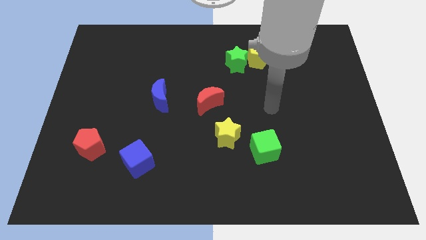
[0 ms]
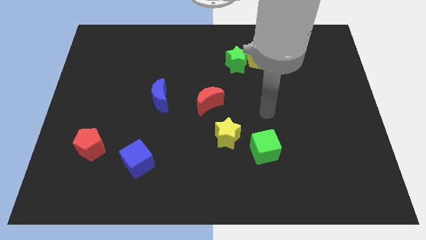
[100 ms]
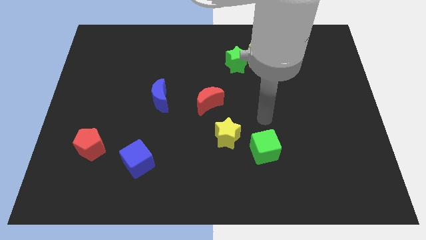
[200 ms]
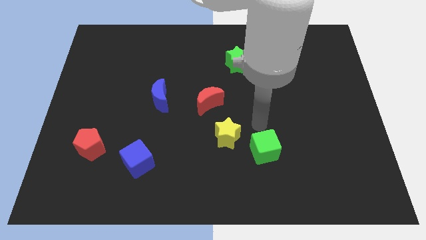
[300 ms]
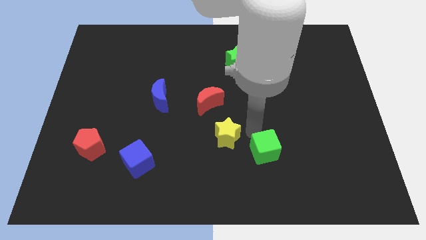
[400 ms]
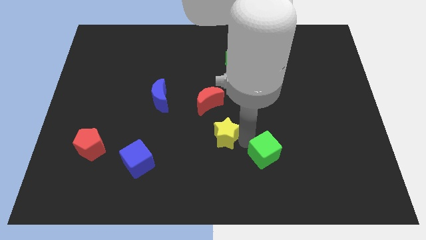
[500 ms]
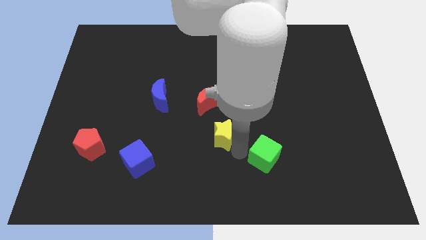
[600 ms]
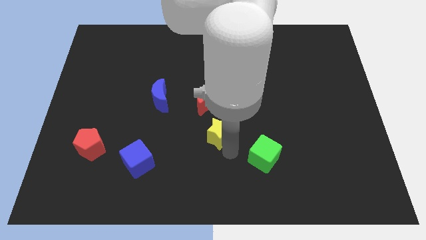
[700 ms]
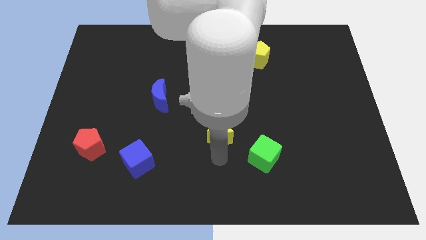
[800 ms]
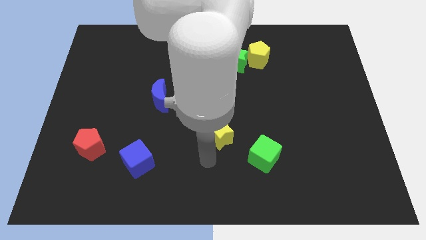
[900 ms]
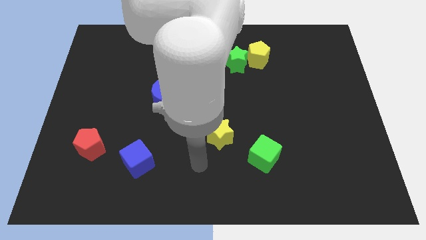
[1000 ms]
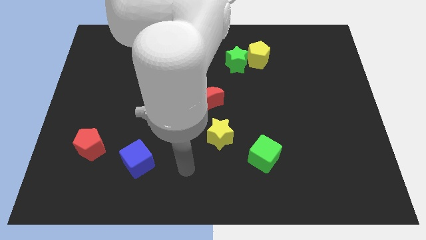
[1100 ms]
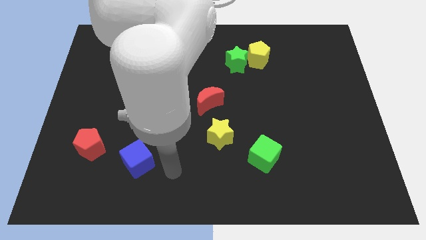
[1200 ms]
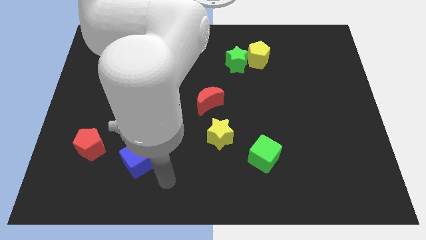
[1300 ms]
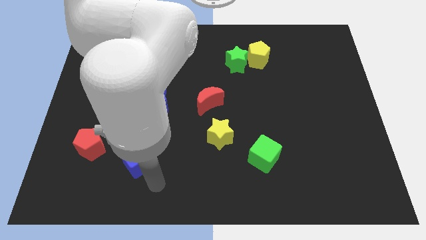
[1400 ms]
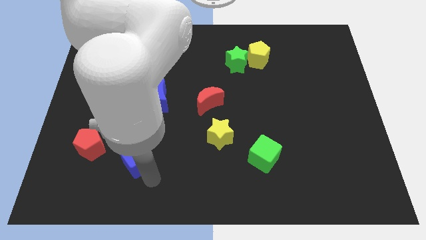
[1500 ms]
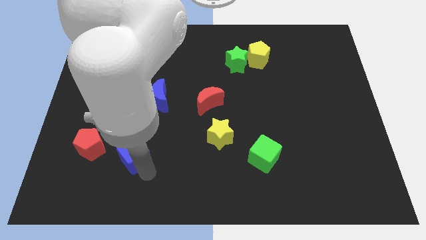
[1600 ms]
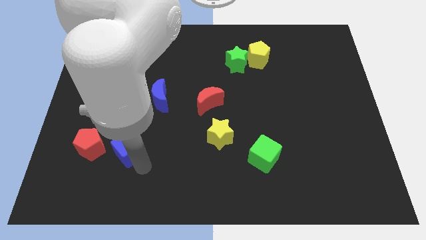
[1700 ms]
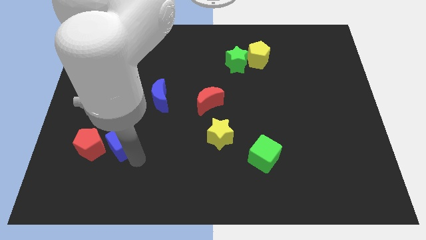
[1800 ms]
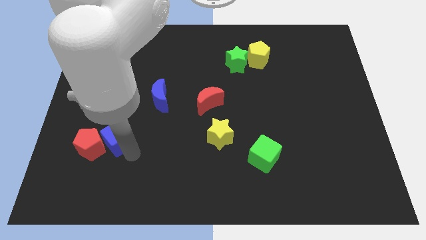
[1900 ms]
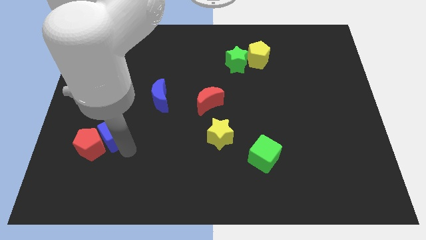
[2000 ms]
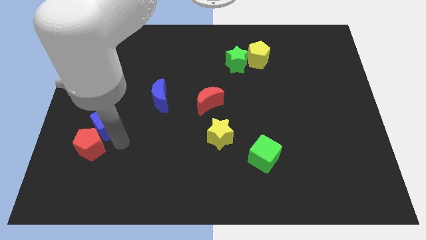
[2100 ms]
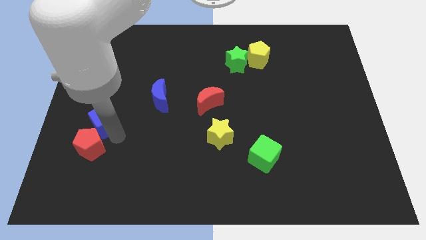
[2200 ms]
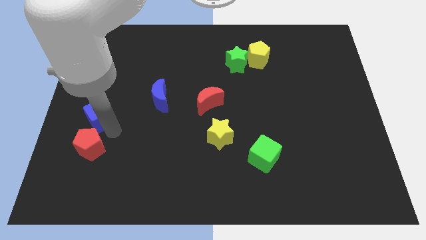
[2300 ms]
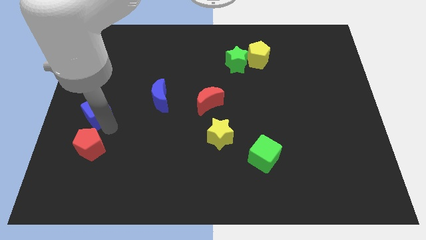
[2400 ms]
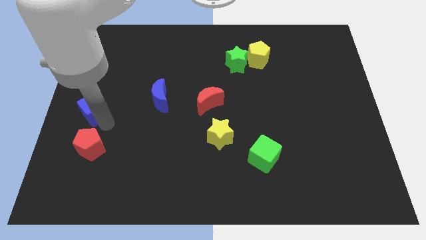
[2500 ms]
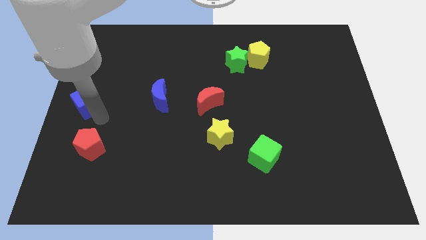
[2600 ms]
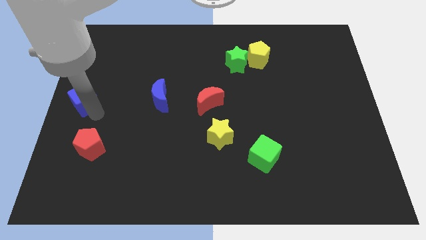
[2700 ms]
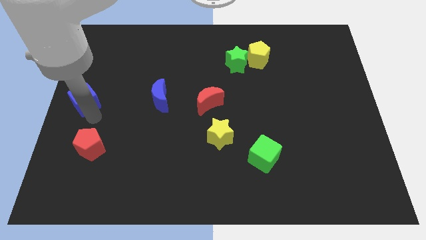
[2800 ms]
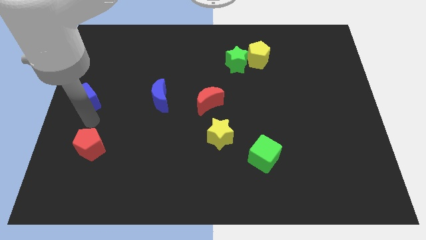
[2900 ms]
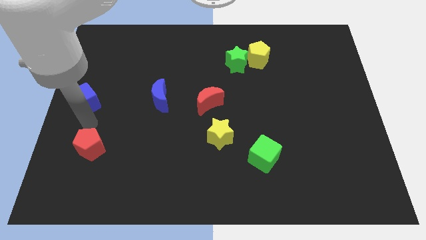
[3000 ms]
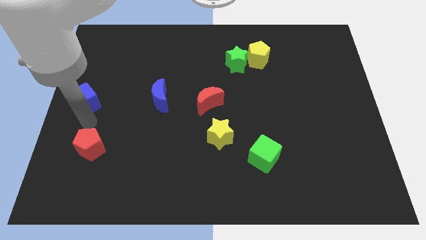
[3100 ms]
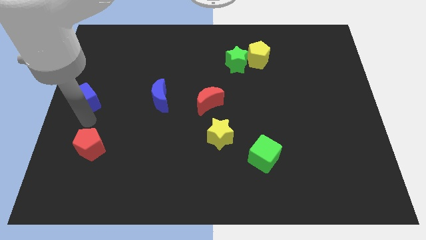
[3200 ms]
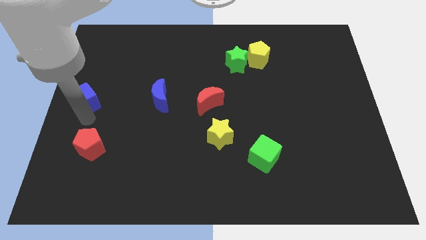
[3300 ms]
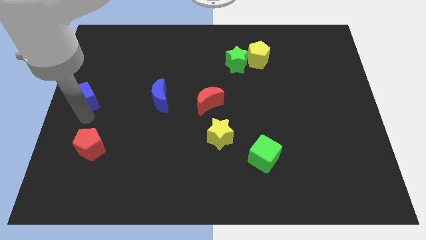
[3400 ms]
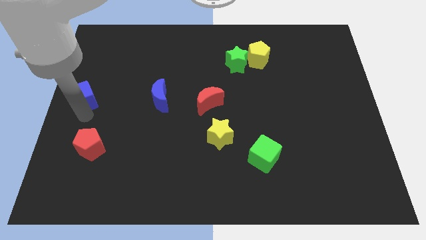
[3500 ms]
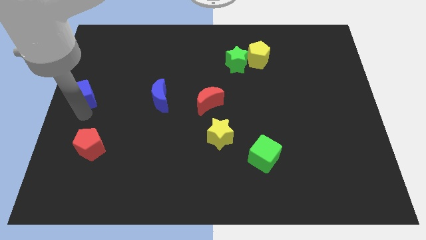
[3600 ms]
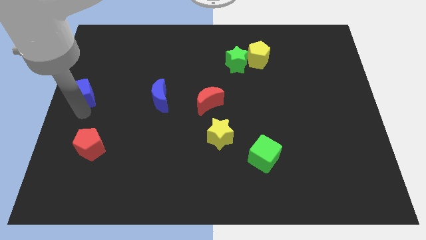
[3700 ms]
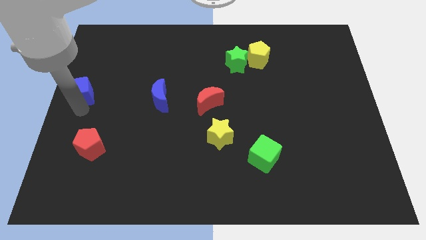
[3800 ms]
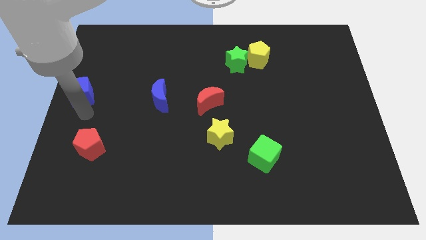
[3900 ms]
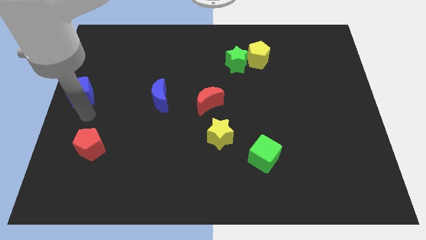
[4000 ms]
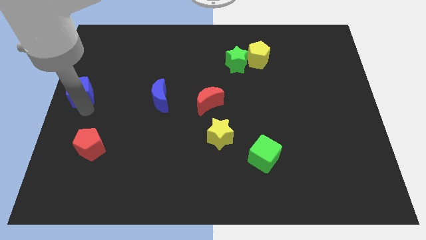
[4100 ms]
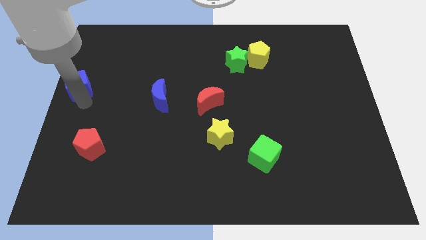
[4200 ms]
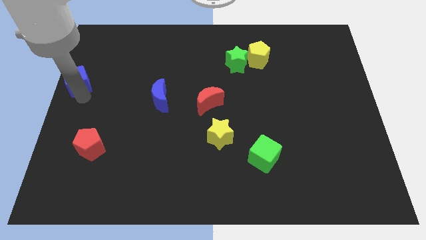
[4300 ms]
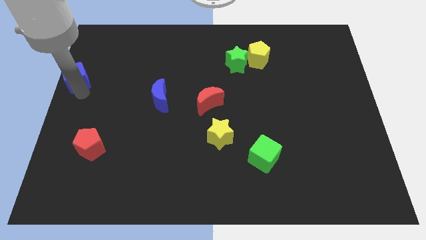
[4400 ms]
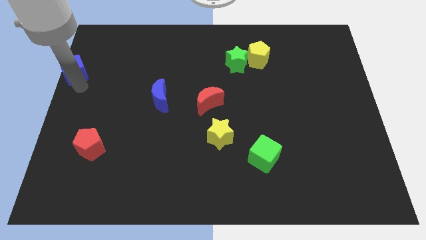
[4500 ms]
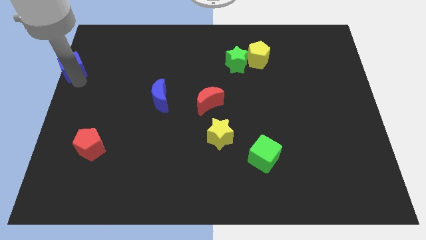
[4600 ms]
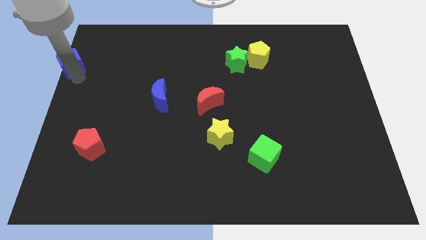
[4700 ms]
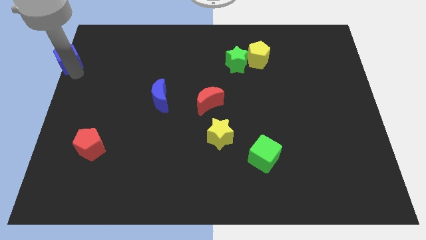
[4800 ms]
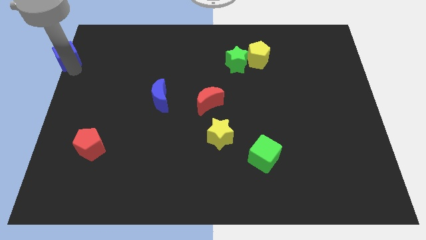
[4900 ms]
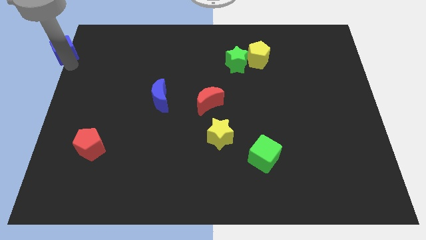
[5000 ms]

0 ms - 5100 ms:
put the blue cube to the top left corner

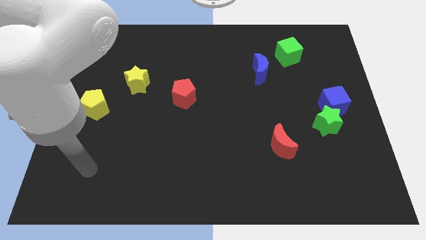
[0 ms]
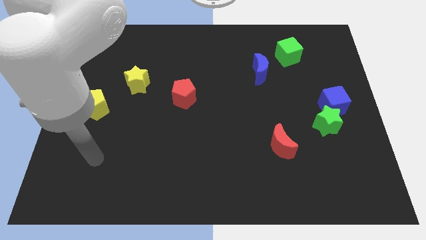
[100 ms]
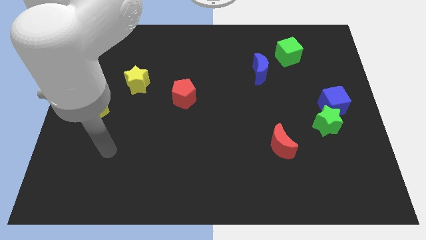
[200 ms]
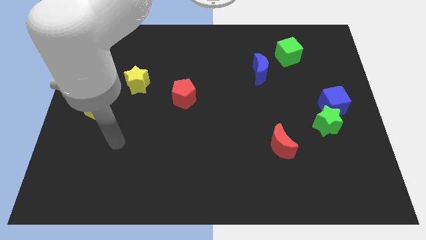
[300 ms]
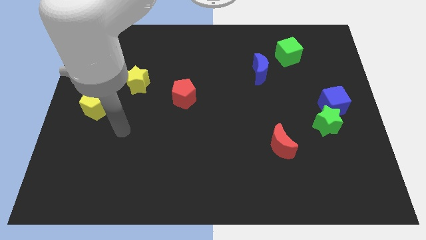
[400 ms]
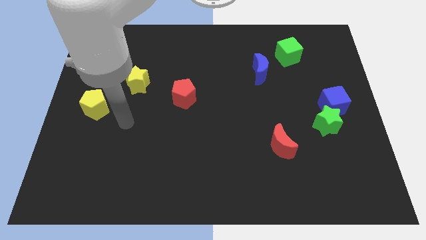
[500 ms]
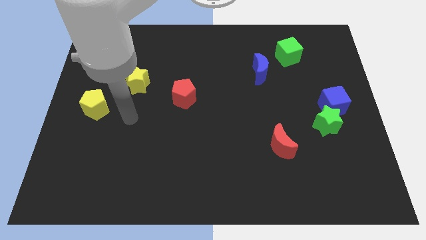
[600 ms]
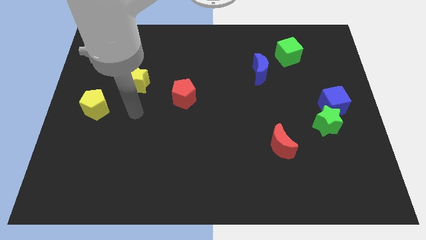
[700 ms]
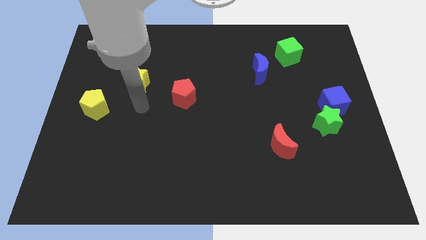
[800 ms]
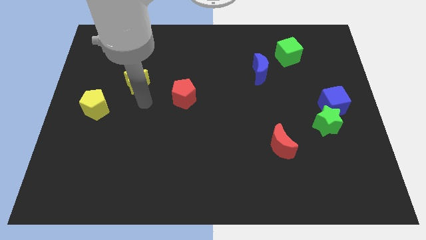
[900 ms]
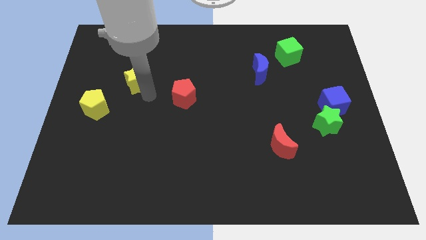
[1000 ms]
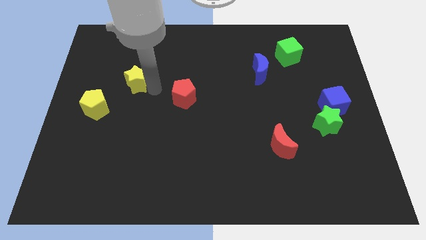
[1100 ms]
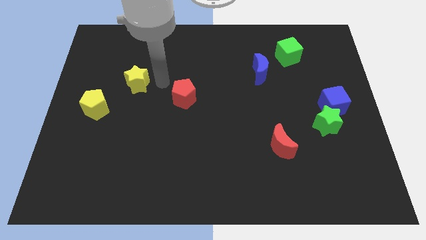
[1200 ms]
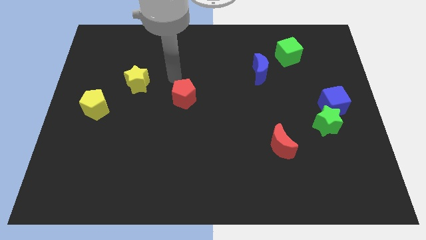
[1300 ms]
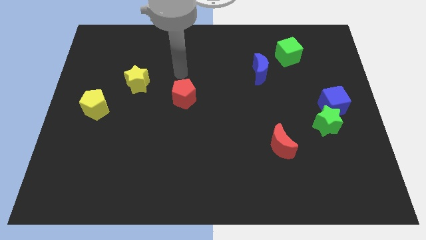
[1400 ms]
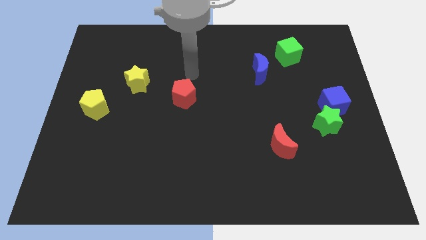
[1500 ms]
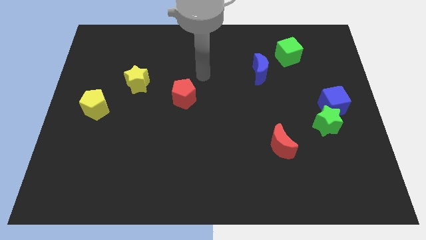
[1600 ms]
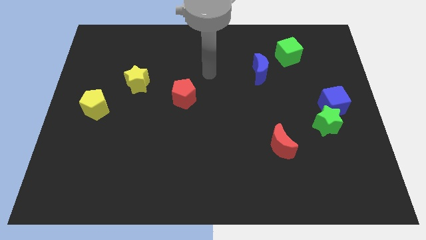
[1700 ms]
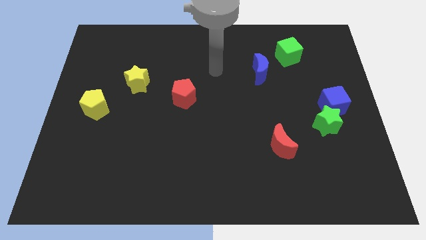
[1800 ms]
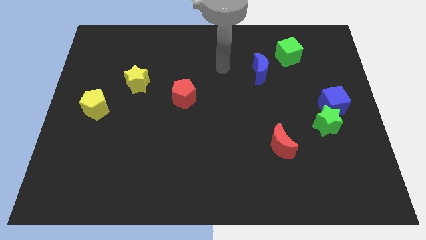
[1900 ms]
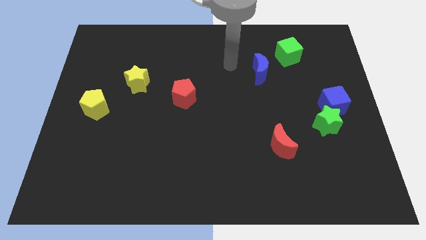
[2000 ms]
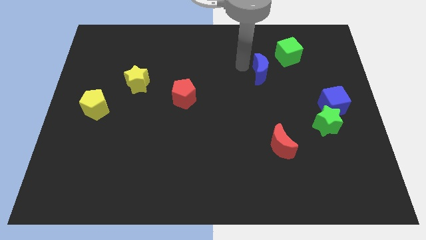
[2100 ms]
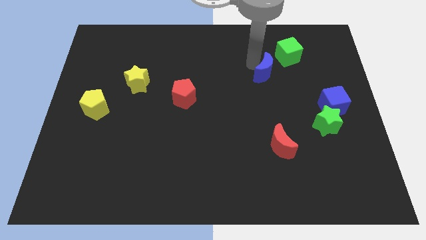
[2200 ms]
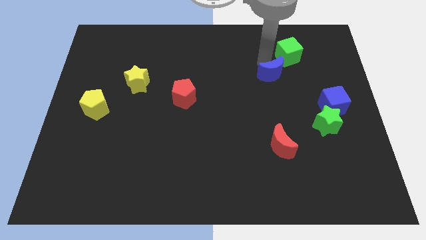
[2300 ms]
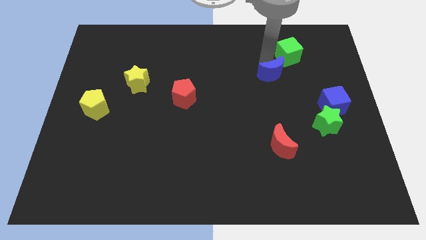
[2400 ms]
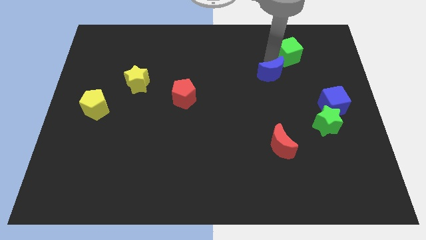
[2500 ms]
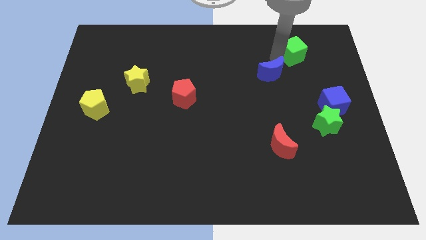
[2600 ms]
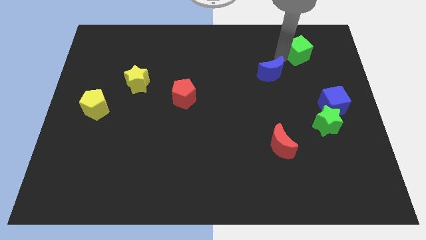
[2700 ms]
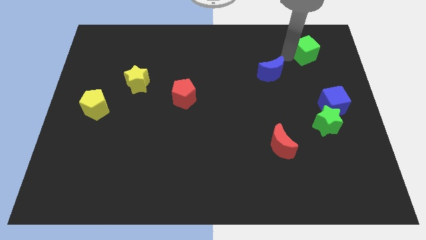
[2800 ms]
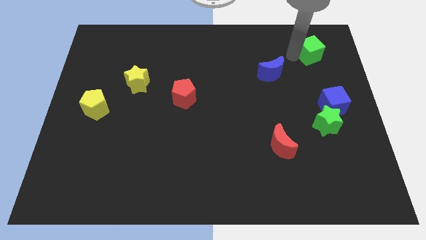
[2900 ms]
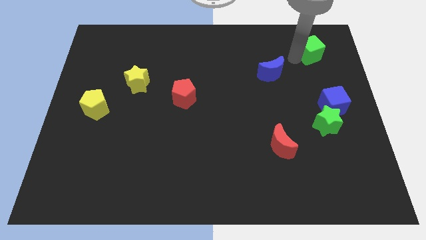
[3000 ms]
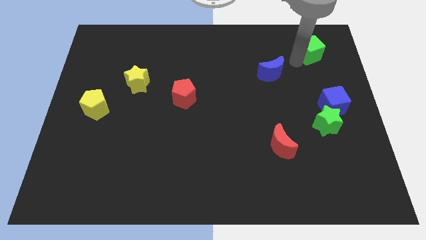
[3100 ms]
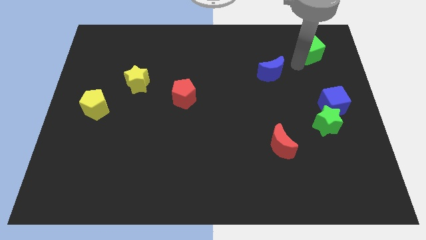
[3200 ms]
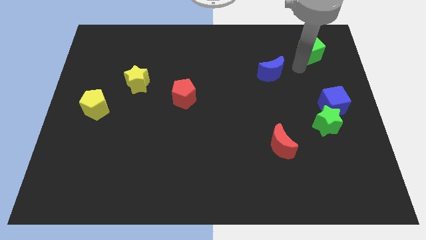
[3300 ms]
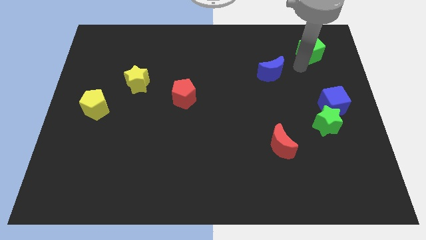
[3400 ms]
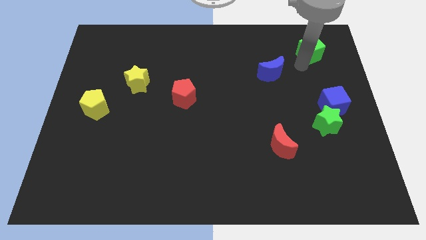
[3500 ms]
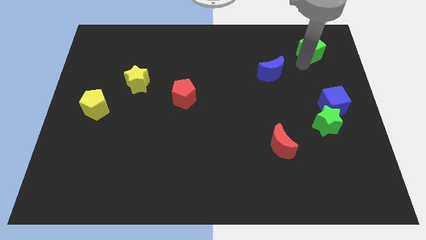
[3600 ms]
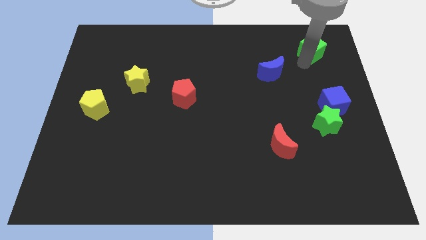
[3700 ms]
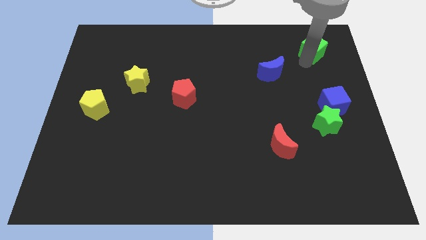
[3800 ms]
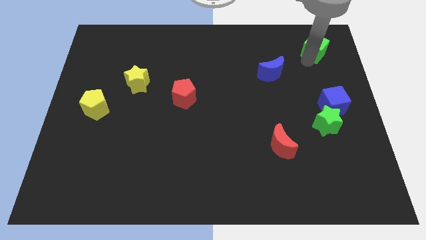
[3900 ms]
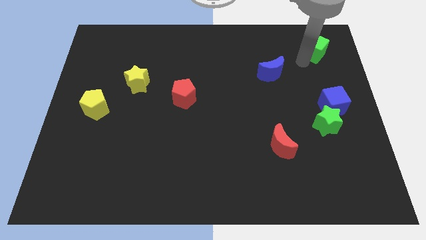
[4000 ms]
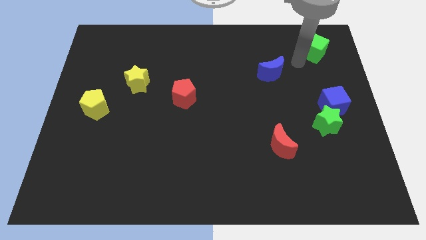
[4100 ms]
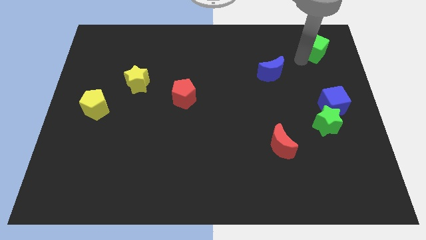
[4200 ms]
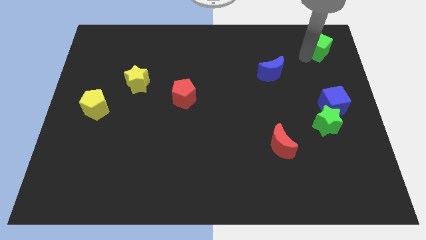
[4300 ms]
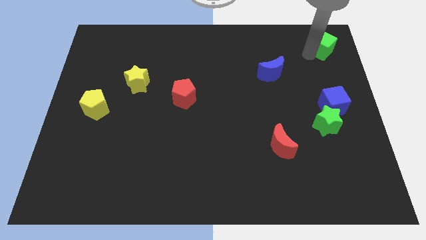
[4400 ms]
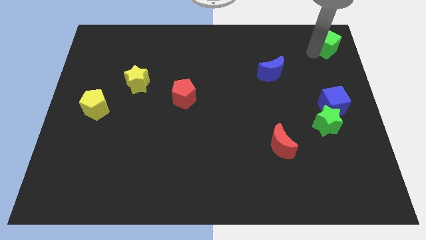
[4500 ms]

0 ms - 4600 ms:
move the green cube to the top right of the board
